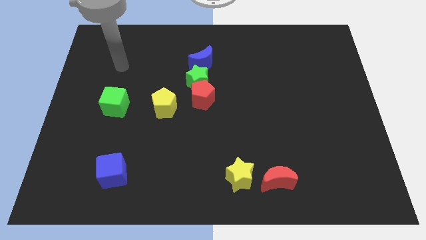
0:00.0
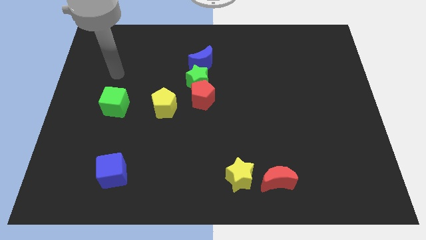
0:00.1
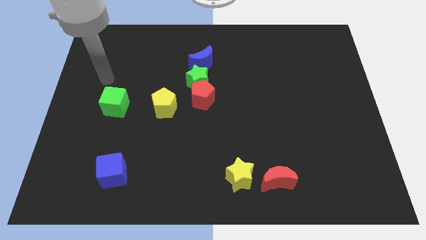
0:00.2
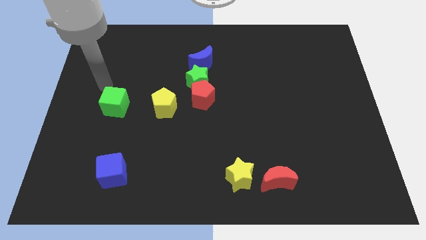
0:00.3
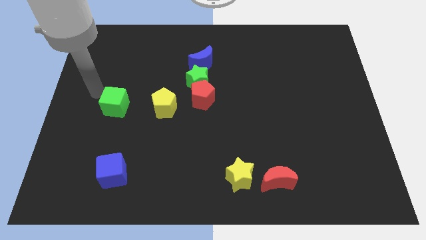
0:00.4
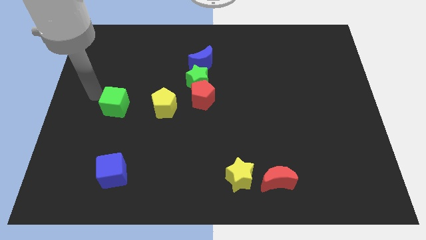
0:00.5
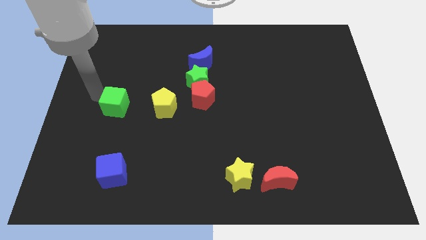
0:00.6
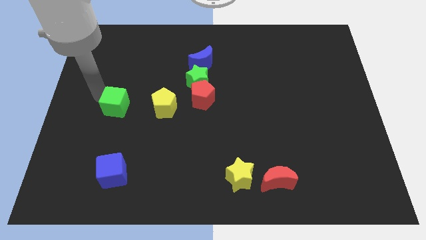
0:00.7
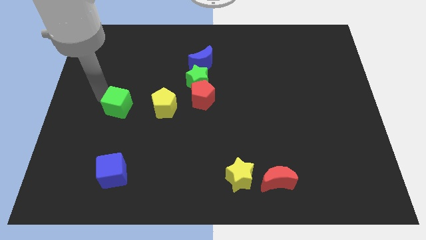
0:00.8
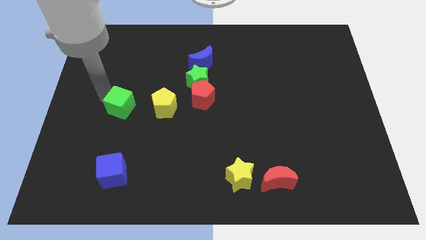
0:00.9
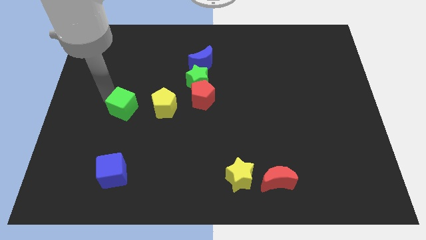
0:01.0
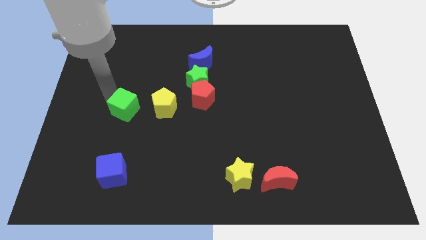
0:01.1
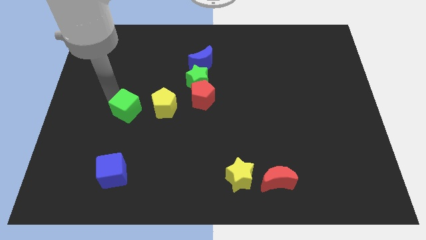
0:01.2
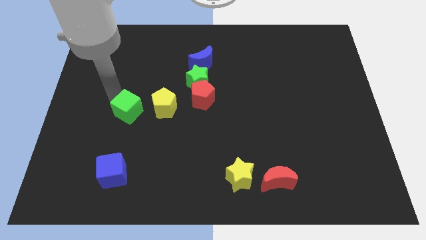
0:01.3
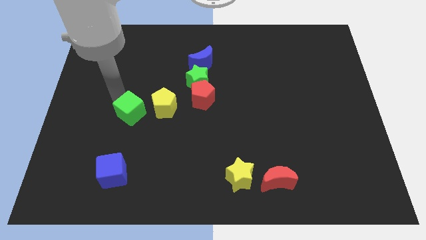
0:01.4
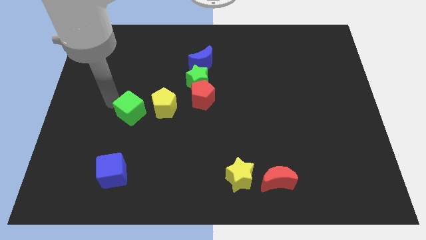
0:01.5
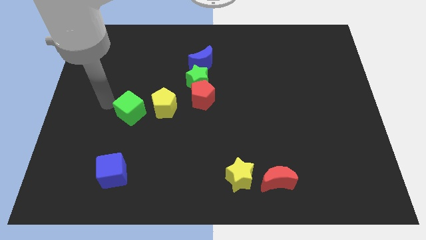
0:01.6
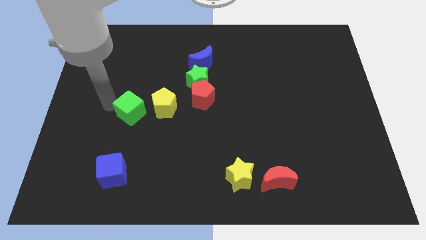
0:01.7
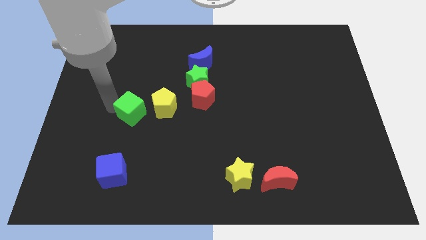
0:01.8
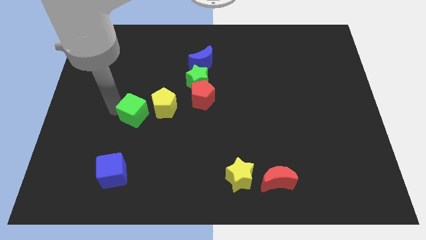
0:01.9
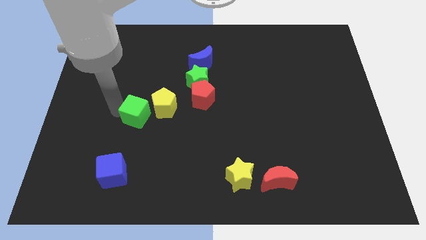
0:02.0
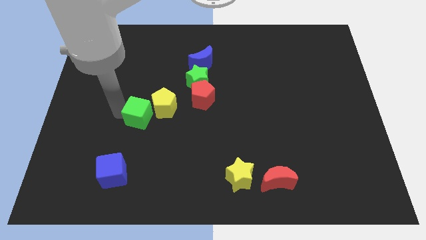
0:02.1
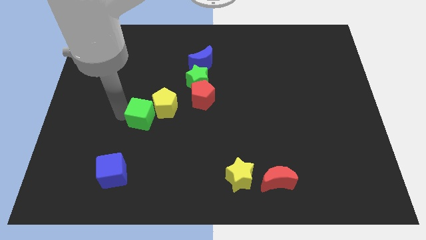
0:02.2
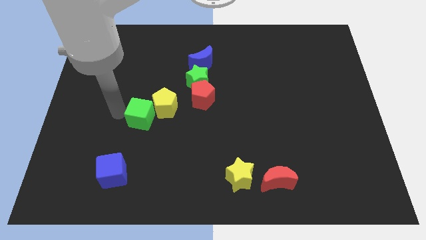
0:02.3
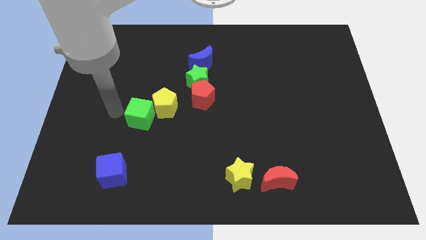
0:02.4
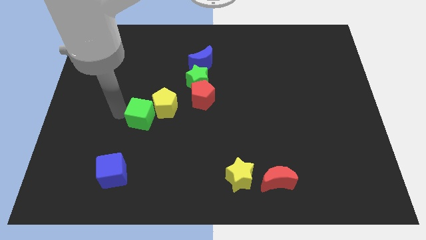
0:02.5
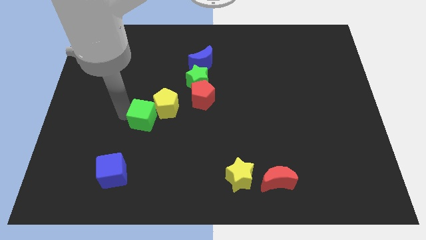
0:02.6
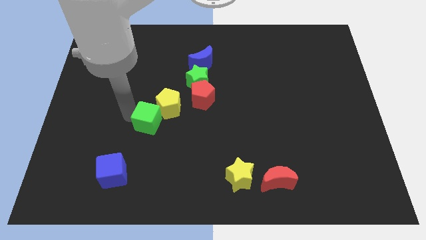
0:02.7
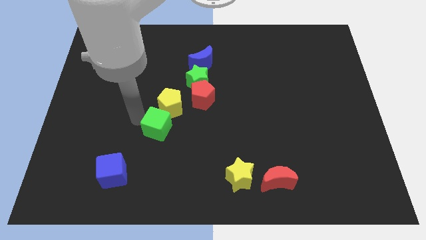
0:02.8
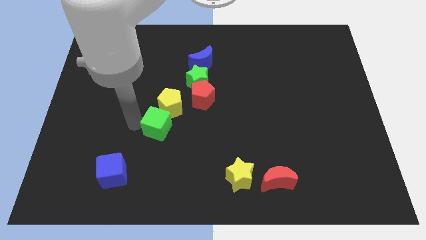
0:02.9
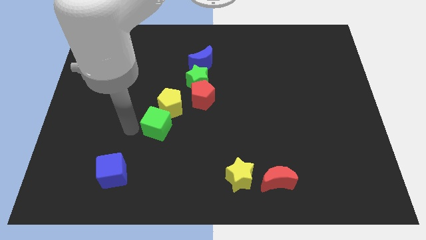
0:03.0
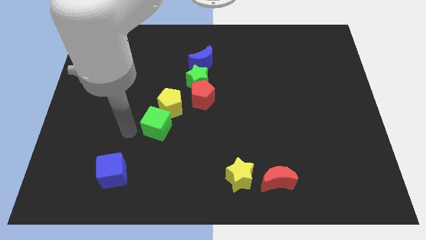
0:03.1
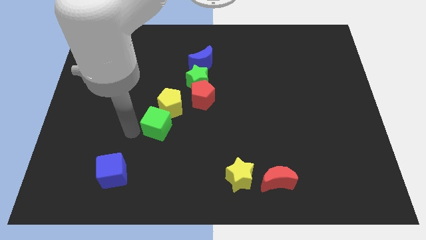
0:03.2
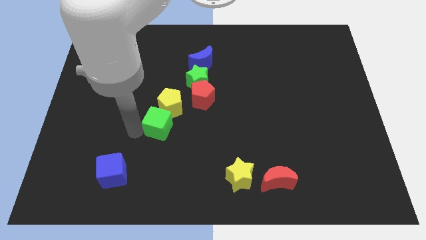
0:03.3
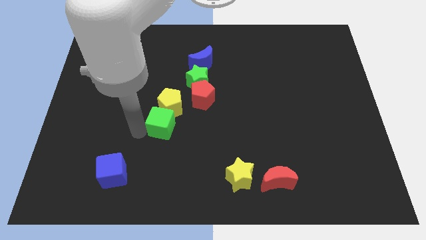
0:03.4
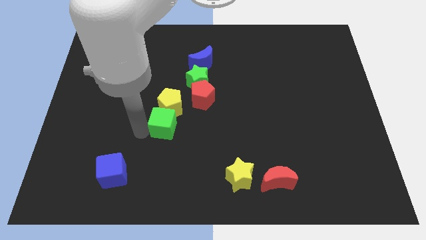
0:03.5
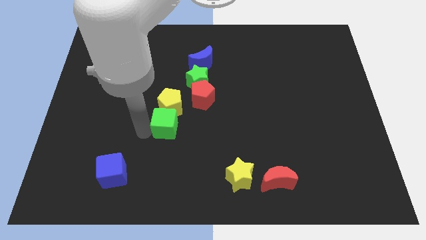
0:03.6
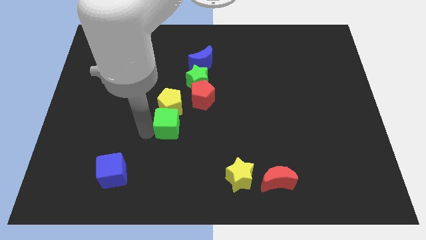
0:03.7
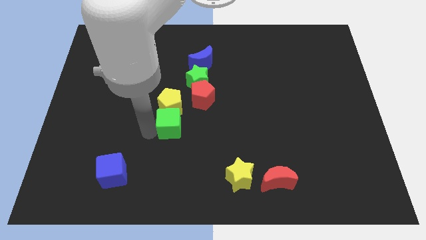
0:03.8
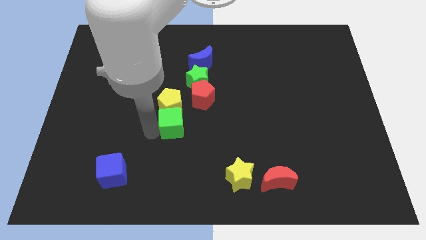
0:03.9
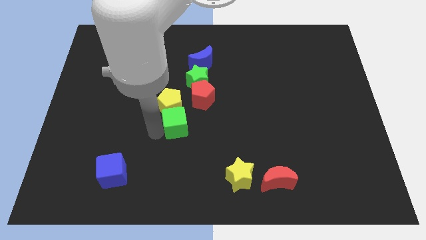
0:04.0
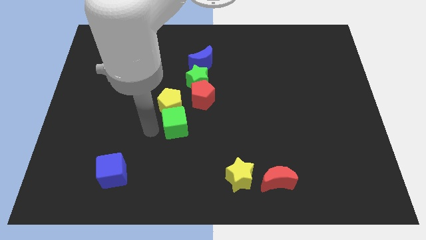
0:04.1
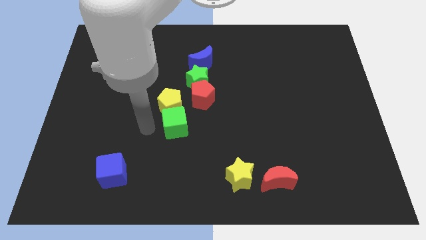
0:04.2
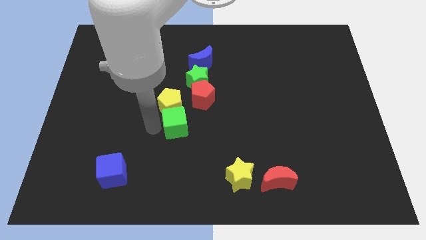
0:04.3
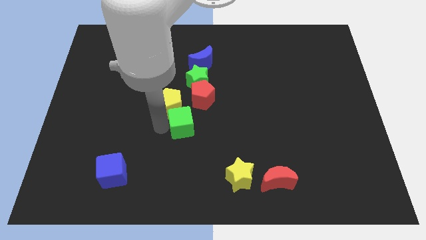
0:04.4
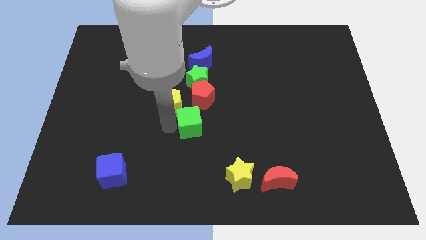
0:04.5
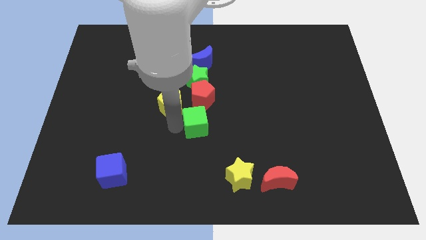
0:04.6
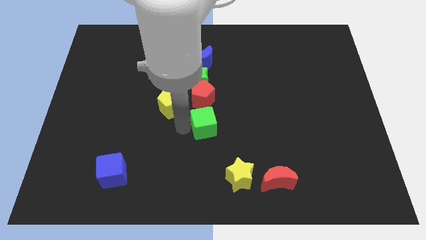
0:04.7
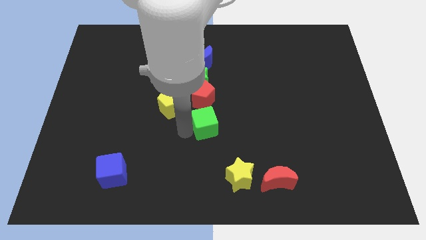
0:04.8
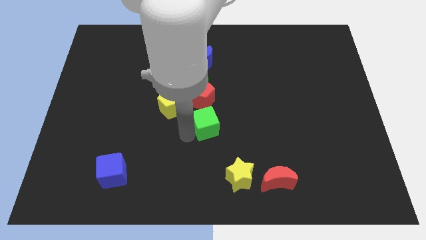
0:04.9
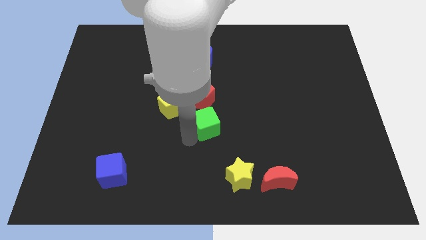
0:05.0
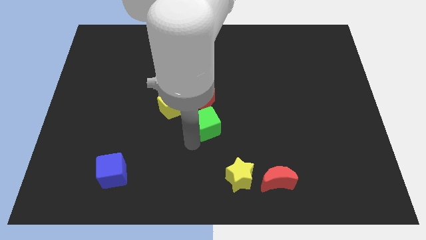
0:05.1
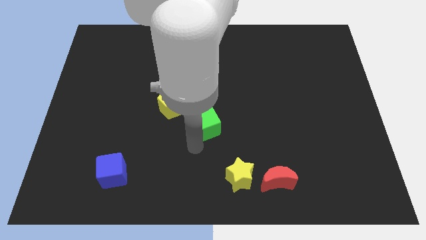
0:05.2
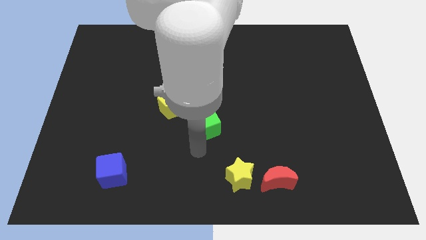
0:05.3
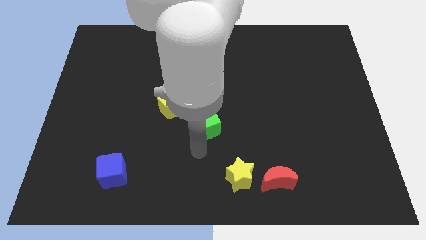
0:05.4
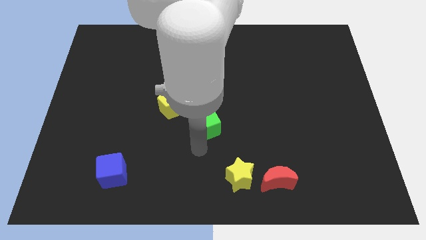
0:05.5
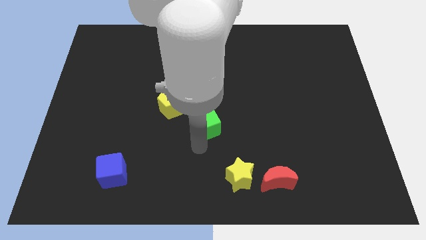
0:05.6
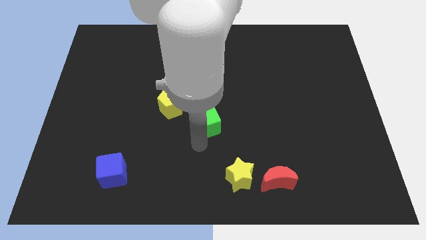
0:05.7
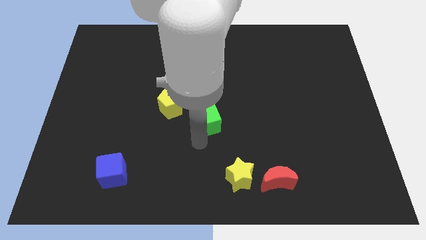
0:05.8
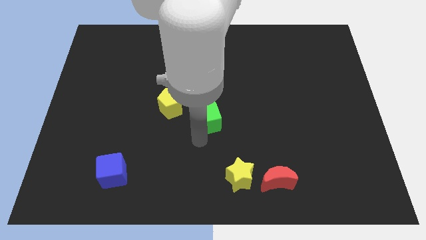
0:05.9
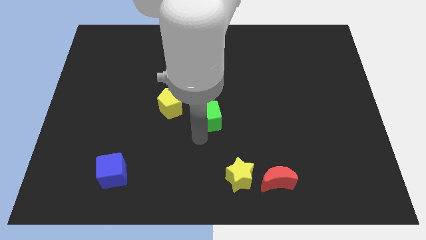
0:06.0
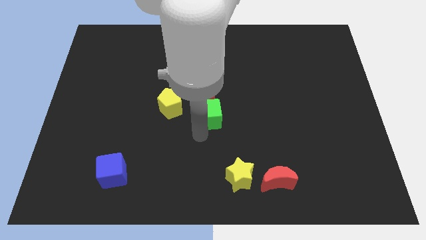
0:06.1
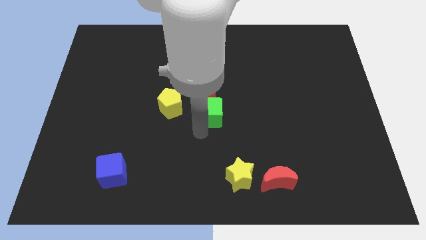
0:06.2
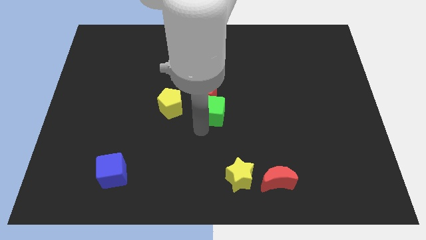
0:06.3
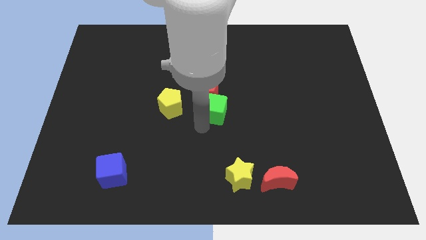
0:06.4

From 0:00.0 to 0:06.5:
put the green cube diagonally down and to the right of the green star

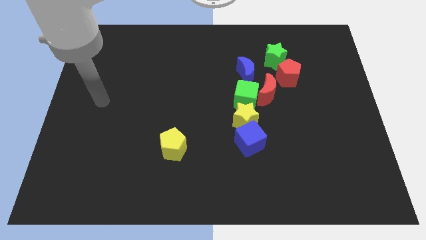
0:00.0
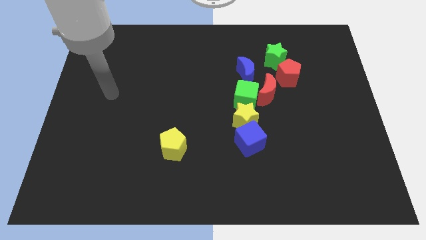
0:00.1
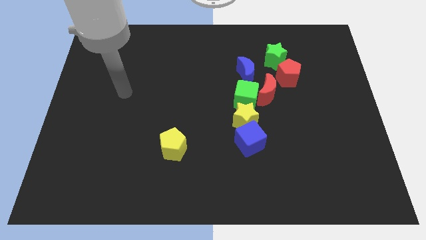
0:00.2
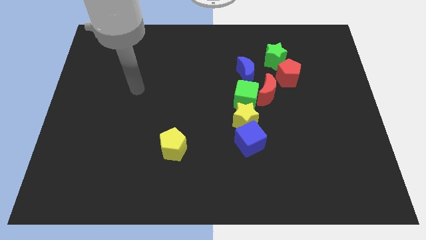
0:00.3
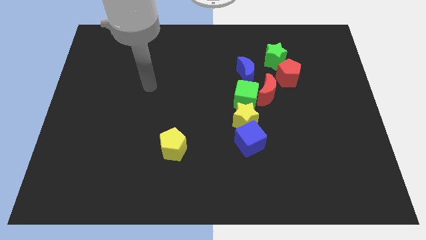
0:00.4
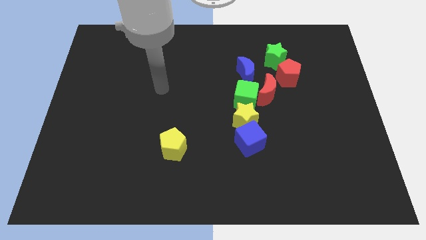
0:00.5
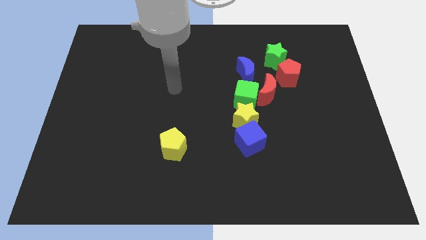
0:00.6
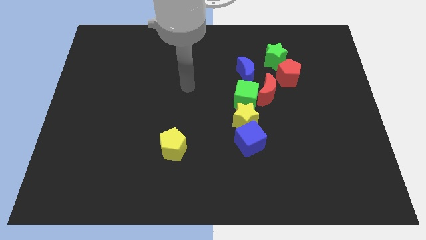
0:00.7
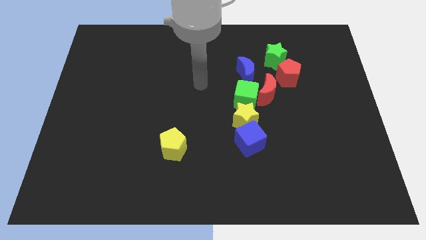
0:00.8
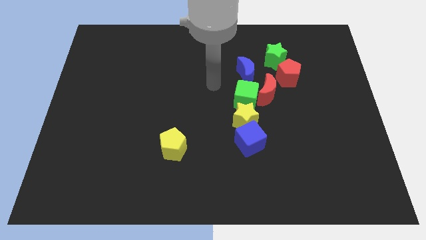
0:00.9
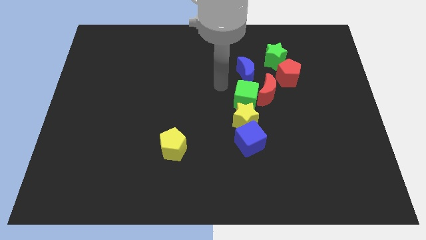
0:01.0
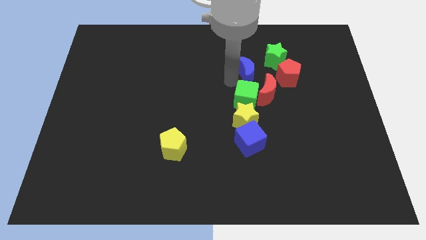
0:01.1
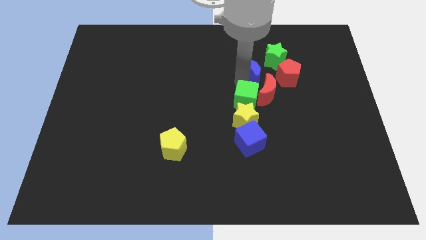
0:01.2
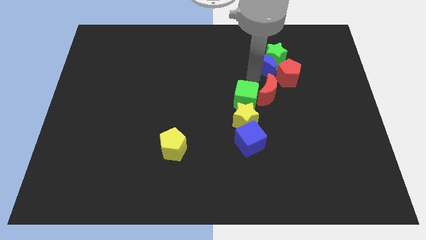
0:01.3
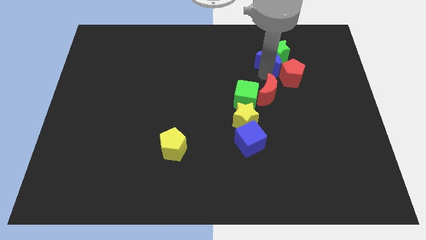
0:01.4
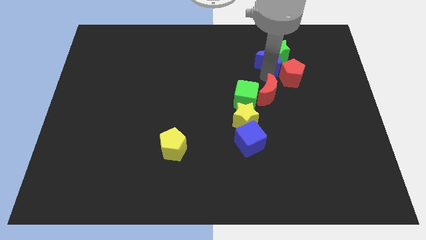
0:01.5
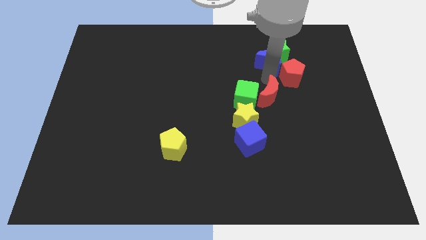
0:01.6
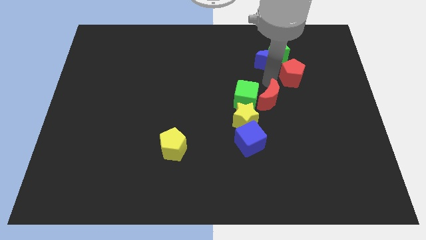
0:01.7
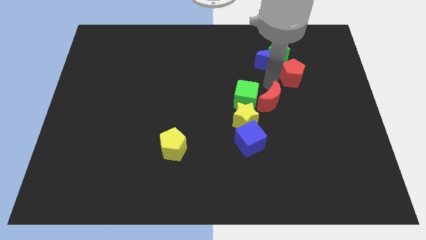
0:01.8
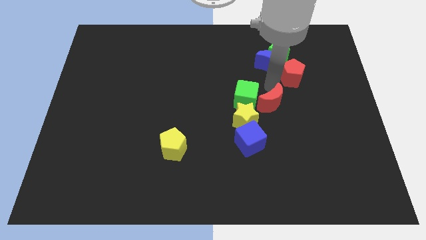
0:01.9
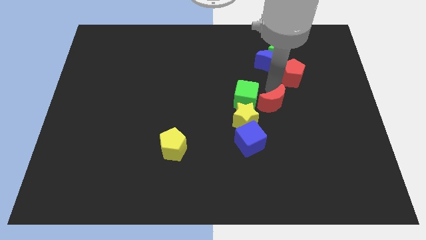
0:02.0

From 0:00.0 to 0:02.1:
push the red moon to the top right side of the blue cube
